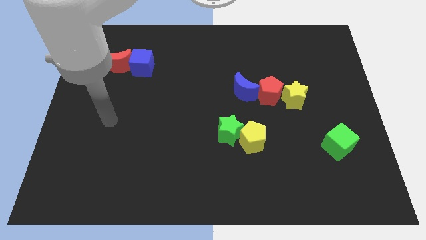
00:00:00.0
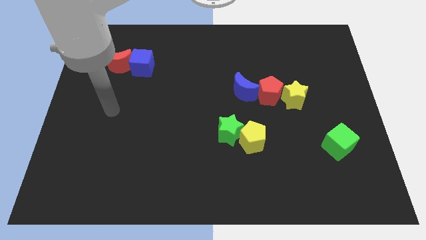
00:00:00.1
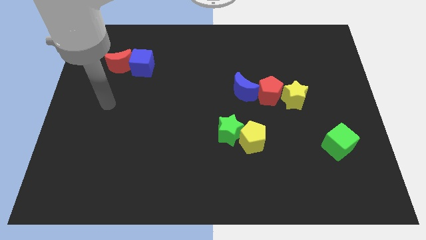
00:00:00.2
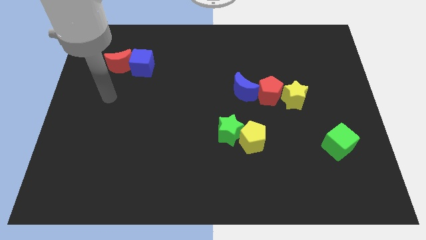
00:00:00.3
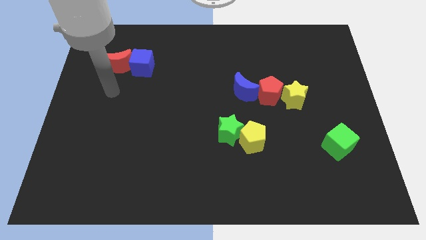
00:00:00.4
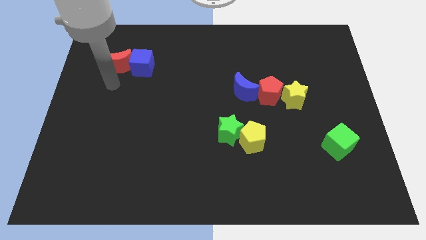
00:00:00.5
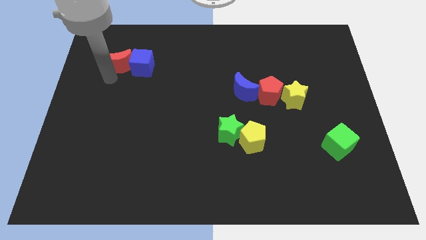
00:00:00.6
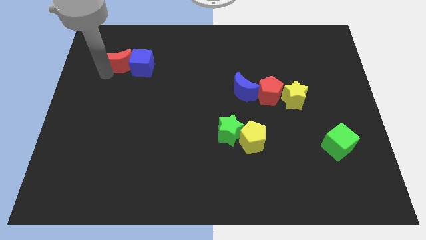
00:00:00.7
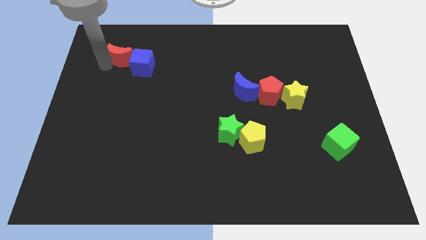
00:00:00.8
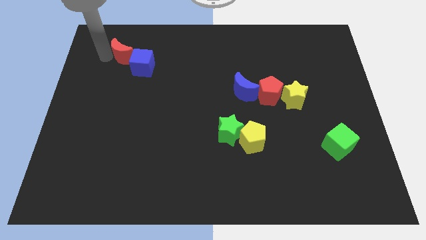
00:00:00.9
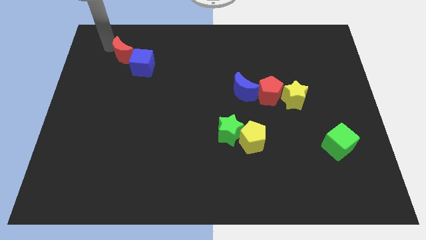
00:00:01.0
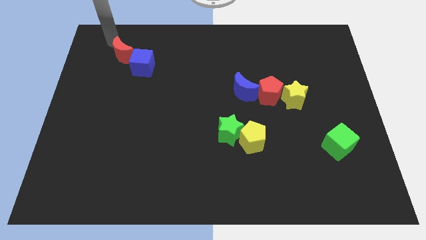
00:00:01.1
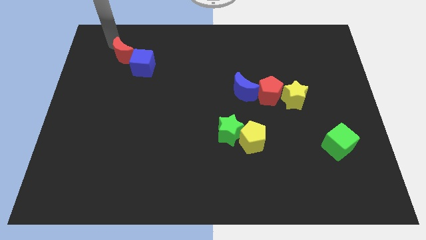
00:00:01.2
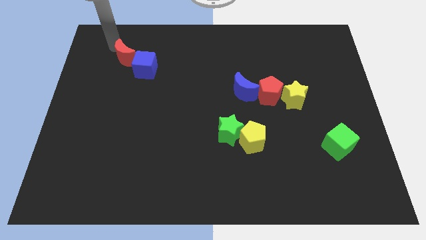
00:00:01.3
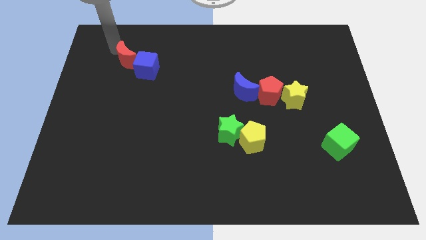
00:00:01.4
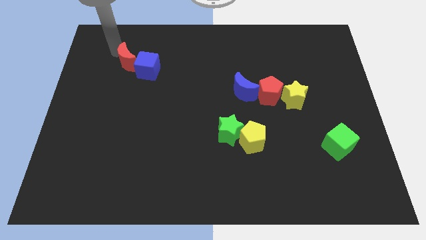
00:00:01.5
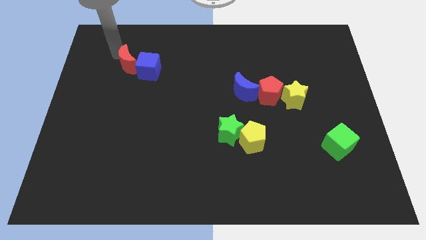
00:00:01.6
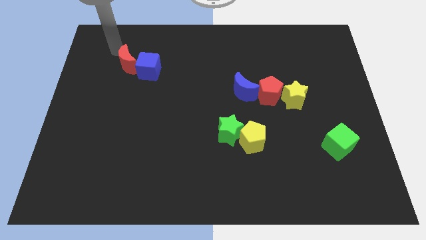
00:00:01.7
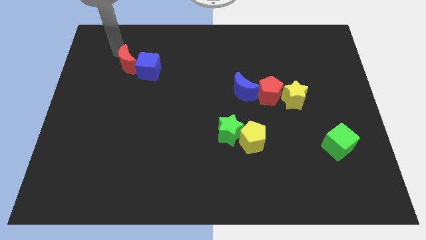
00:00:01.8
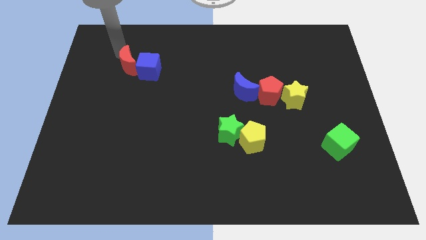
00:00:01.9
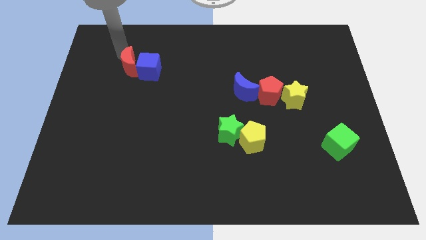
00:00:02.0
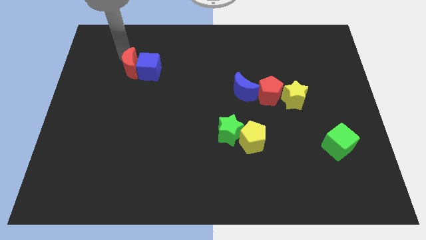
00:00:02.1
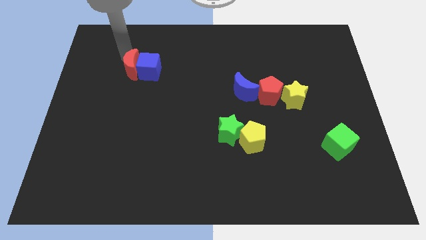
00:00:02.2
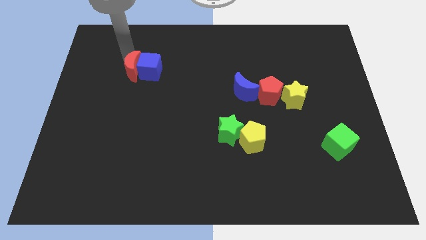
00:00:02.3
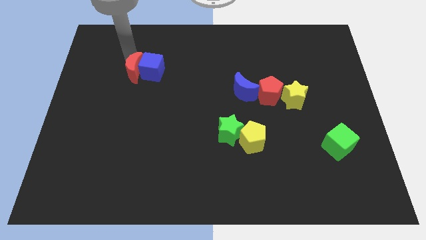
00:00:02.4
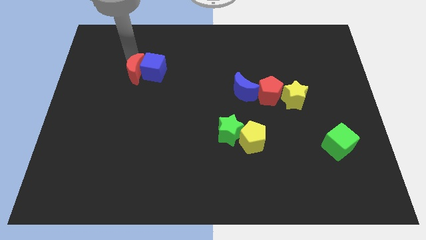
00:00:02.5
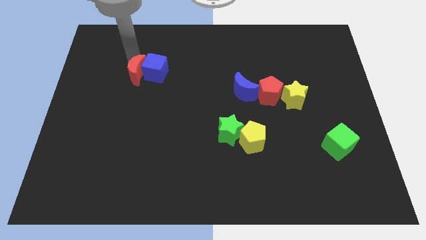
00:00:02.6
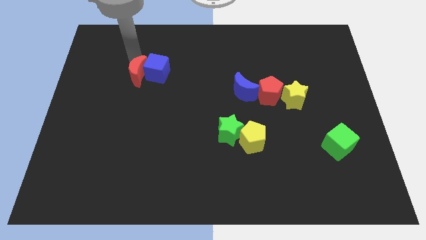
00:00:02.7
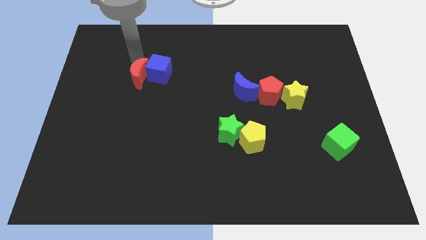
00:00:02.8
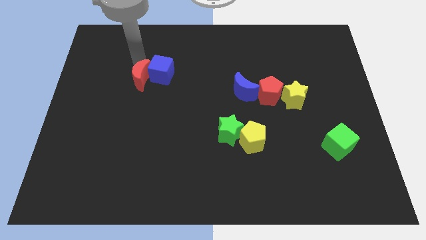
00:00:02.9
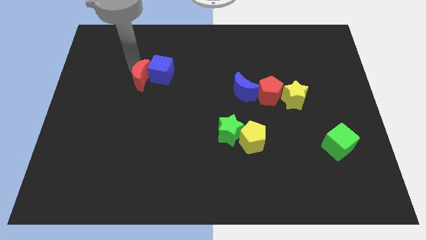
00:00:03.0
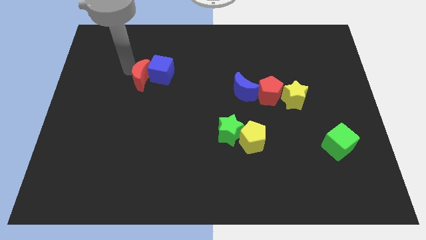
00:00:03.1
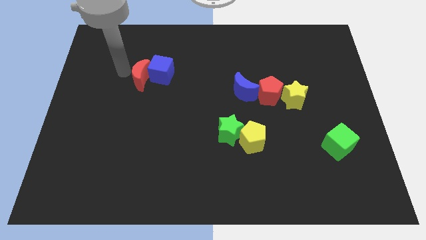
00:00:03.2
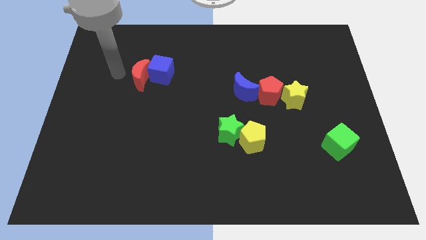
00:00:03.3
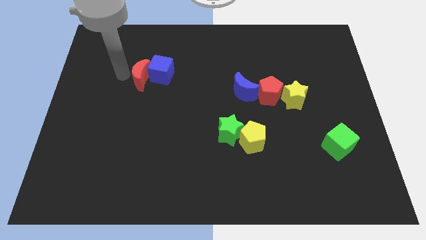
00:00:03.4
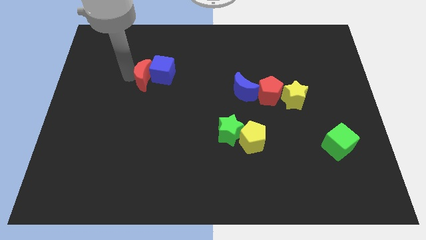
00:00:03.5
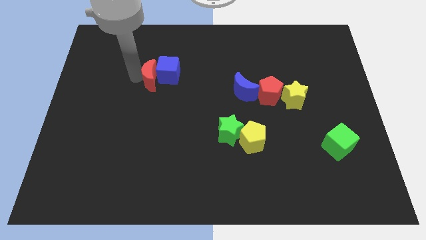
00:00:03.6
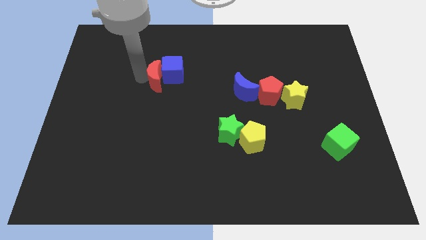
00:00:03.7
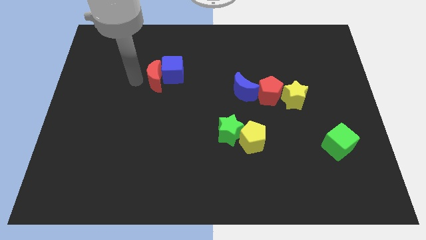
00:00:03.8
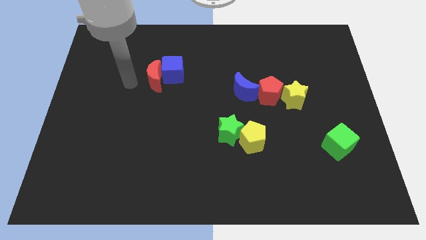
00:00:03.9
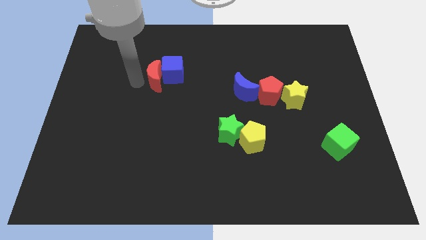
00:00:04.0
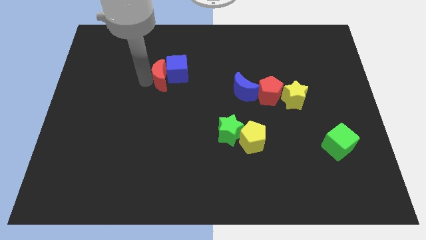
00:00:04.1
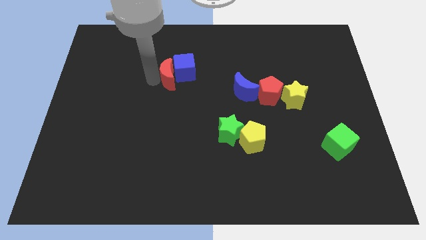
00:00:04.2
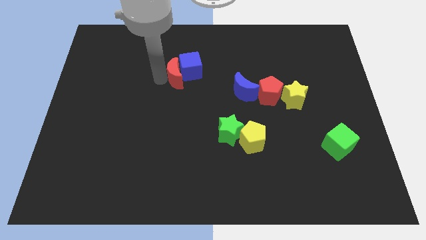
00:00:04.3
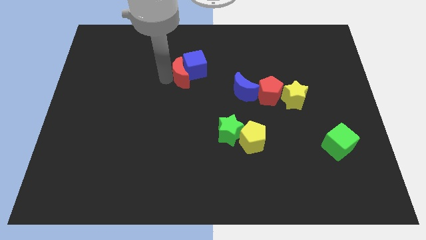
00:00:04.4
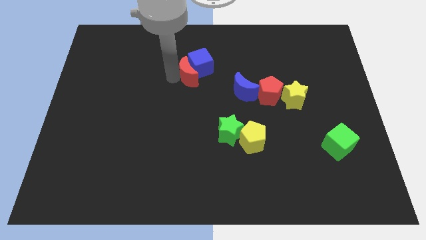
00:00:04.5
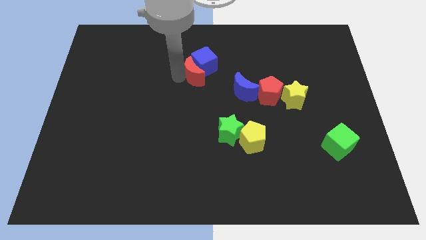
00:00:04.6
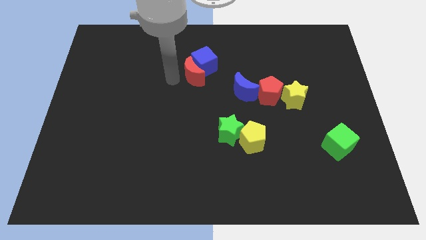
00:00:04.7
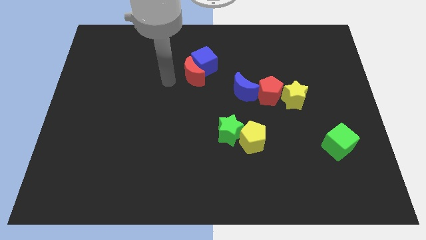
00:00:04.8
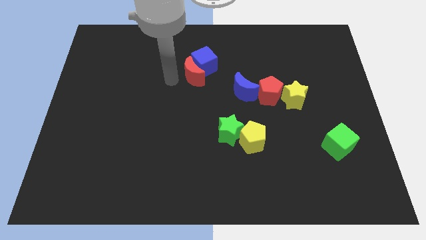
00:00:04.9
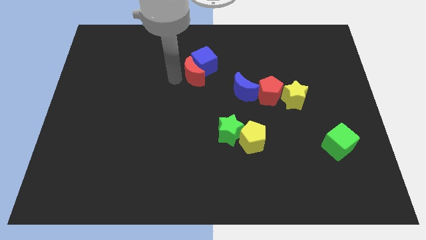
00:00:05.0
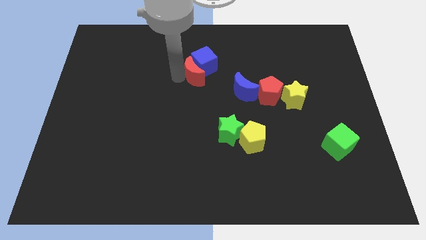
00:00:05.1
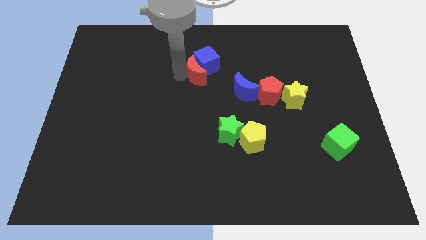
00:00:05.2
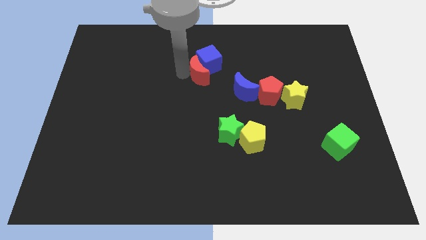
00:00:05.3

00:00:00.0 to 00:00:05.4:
move the red moon to the right

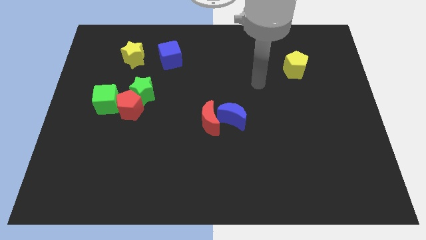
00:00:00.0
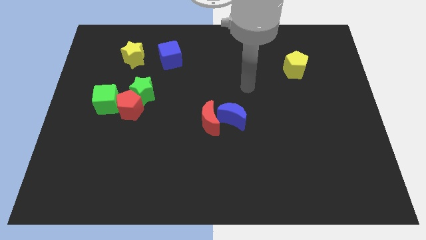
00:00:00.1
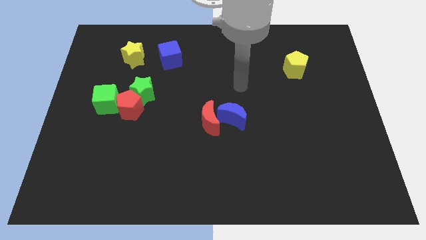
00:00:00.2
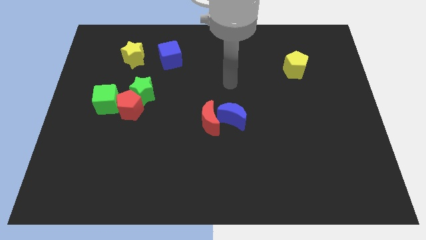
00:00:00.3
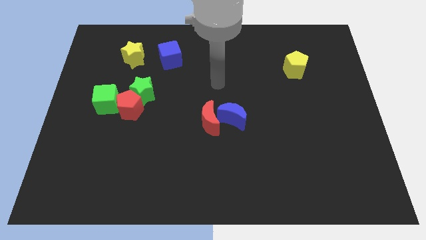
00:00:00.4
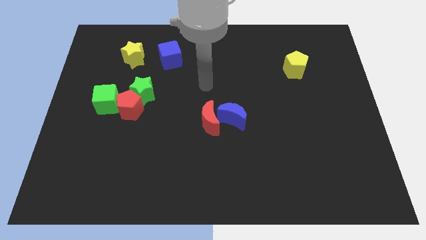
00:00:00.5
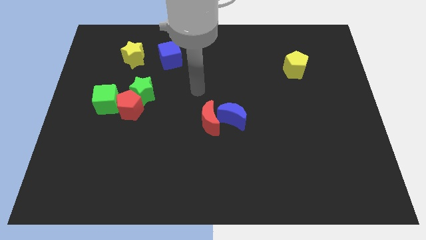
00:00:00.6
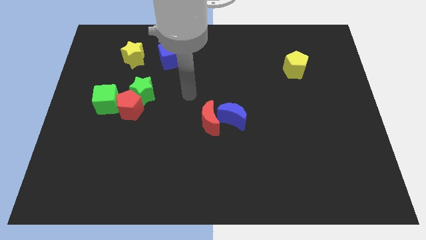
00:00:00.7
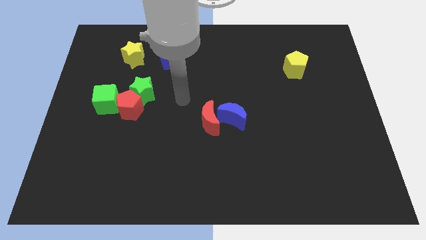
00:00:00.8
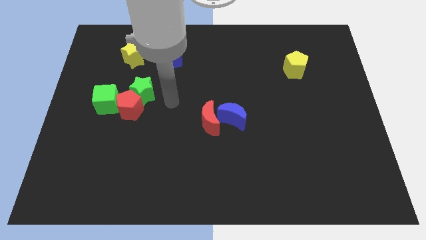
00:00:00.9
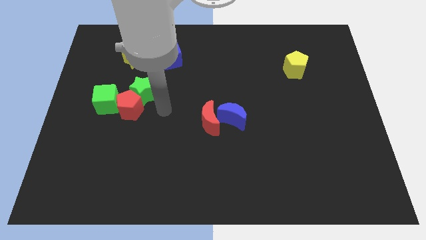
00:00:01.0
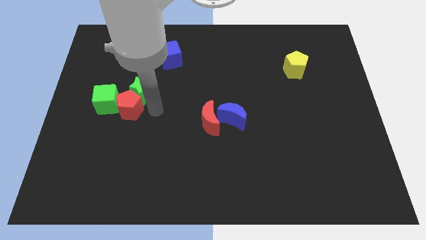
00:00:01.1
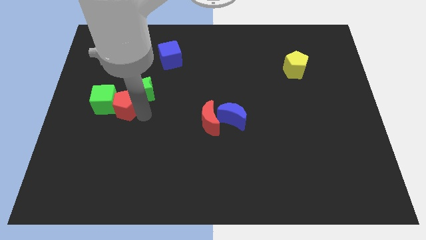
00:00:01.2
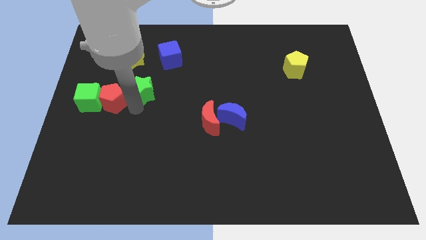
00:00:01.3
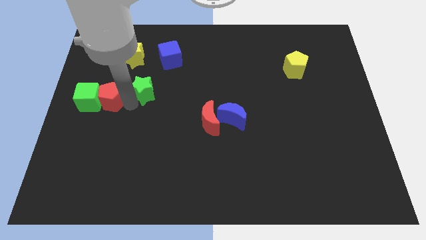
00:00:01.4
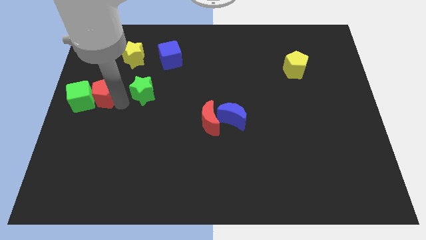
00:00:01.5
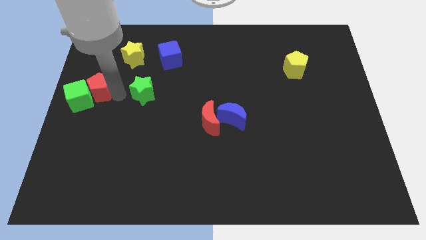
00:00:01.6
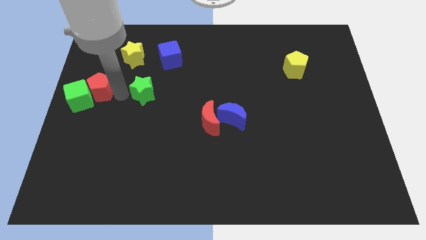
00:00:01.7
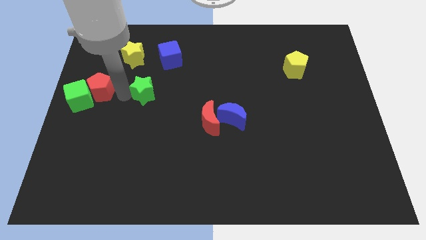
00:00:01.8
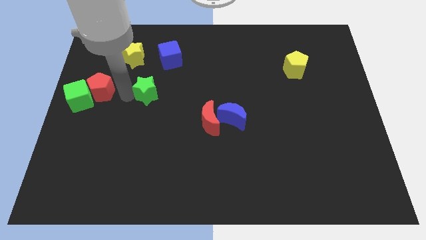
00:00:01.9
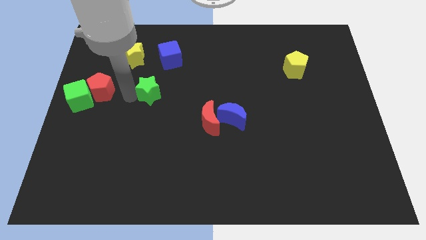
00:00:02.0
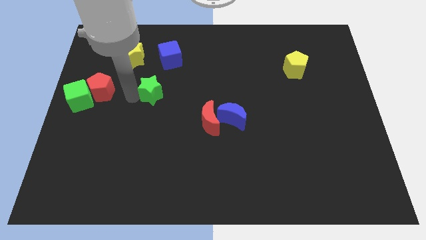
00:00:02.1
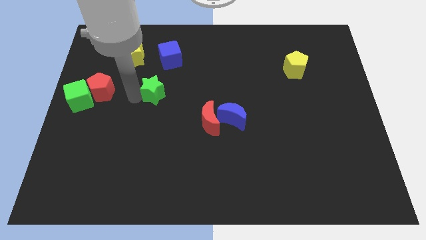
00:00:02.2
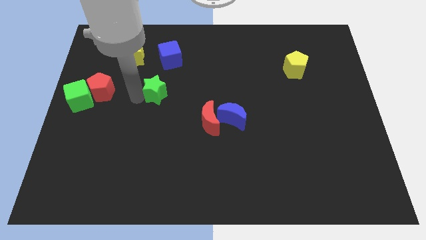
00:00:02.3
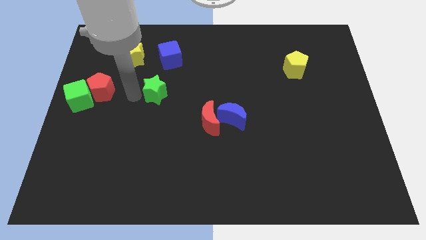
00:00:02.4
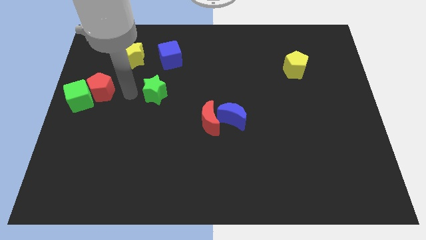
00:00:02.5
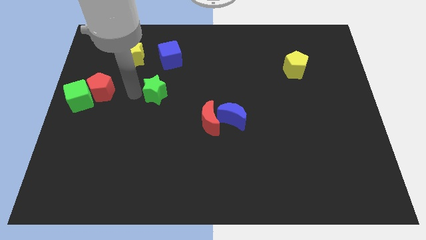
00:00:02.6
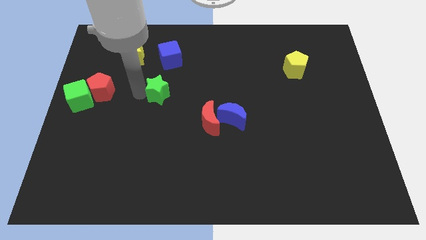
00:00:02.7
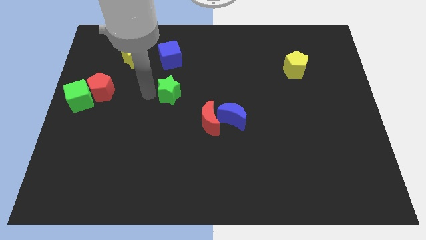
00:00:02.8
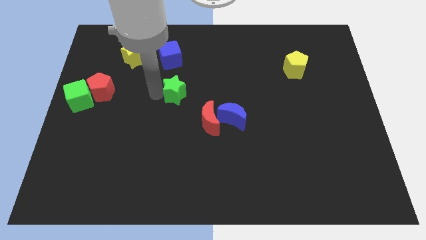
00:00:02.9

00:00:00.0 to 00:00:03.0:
move the green star right a little bit

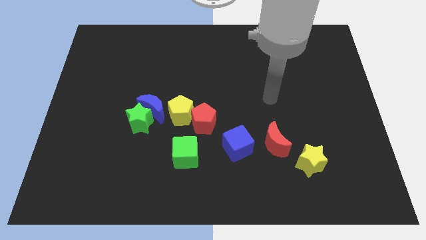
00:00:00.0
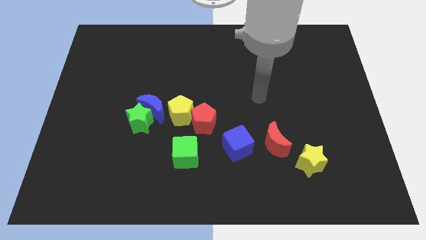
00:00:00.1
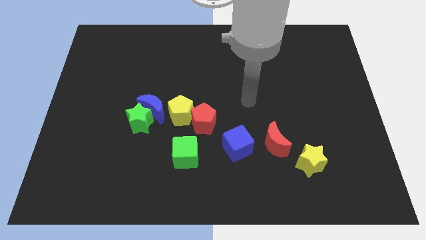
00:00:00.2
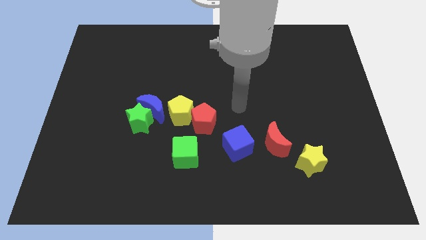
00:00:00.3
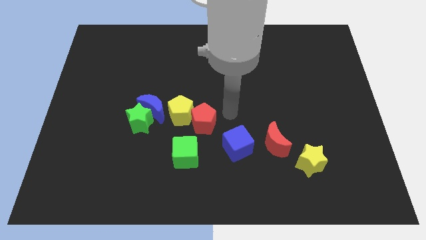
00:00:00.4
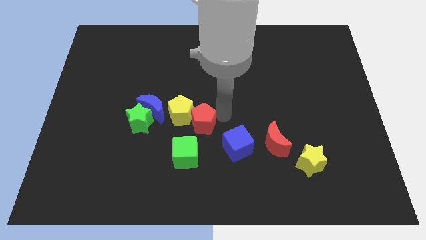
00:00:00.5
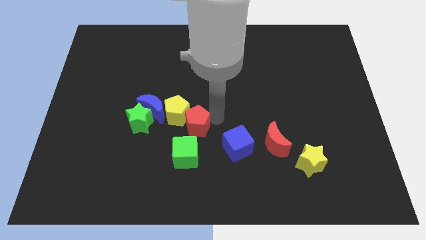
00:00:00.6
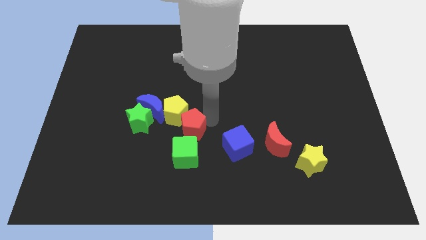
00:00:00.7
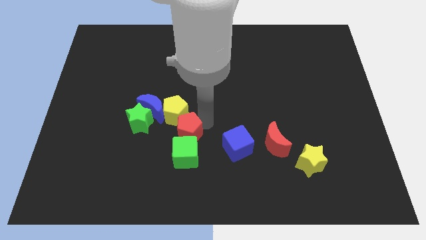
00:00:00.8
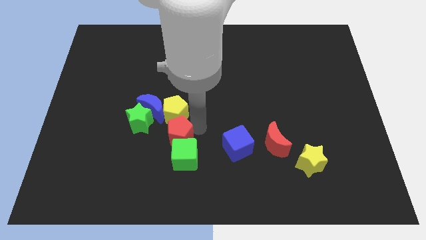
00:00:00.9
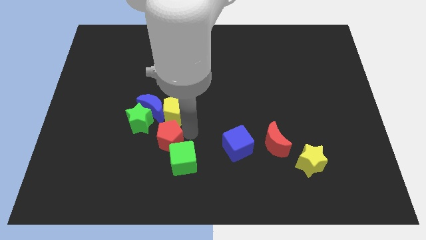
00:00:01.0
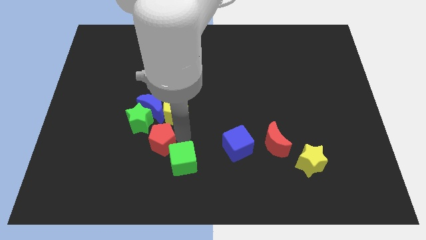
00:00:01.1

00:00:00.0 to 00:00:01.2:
slide the red pentagon a bit to the left
